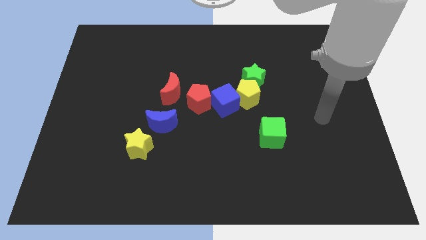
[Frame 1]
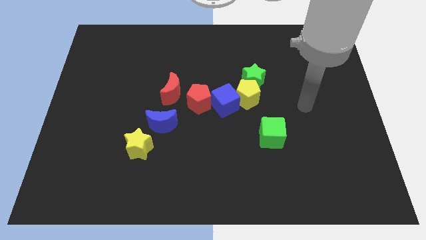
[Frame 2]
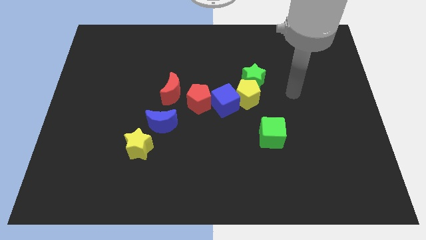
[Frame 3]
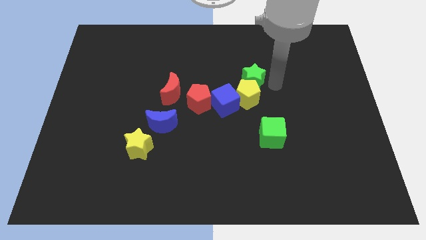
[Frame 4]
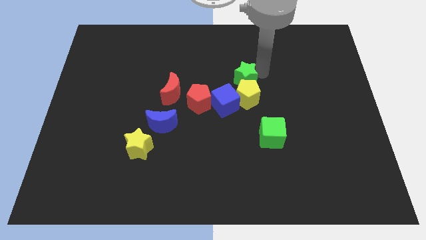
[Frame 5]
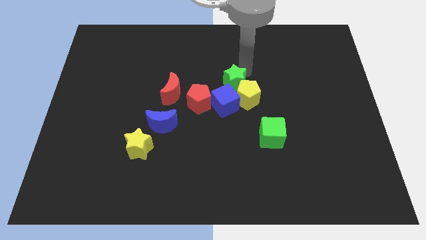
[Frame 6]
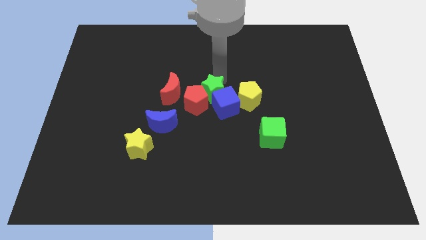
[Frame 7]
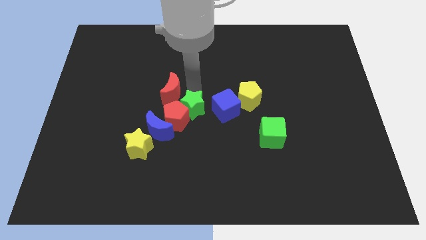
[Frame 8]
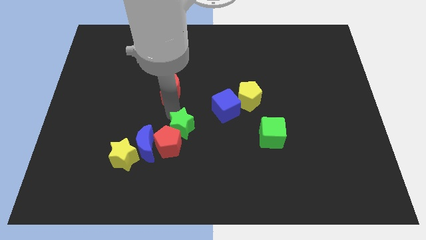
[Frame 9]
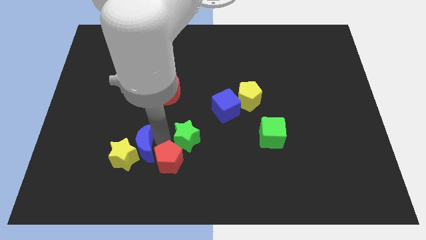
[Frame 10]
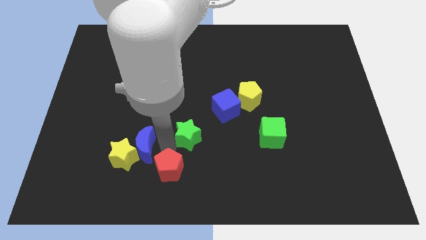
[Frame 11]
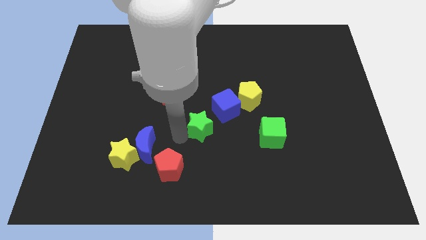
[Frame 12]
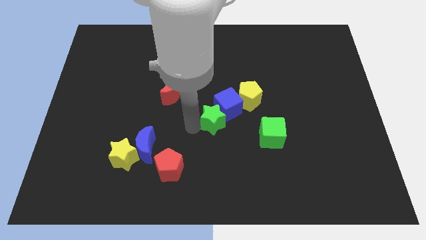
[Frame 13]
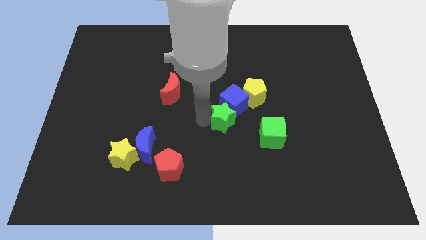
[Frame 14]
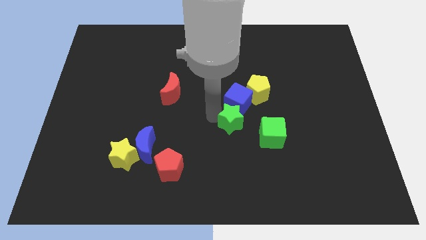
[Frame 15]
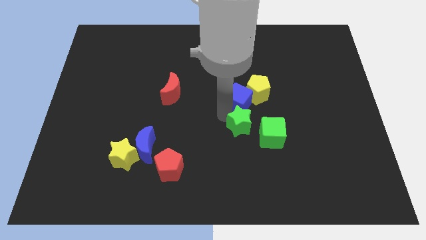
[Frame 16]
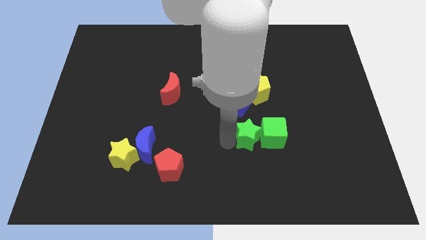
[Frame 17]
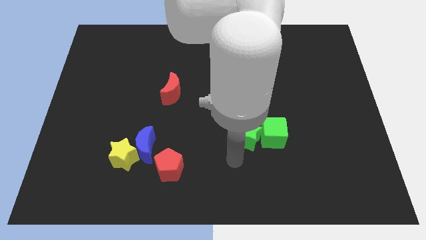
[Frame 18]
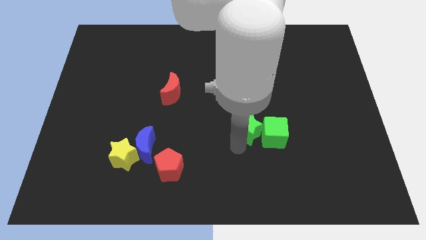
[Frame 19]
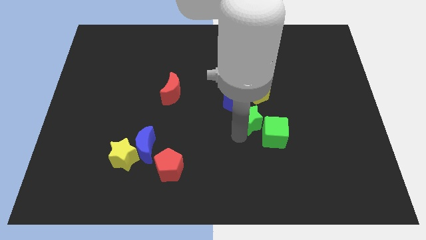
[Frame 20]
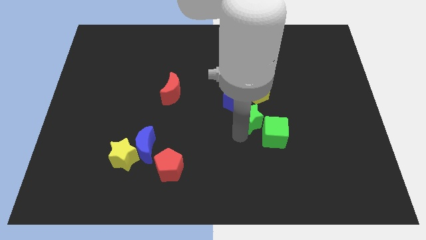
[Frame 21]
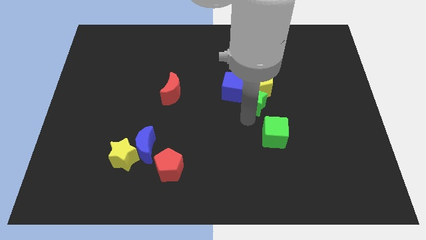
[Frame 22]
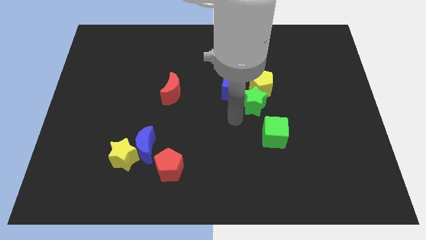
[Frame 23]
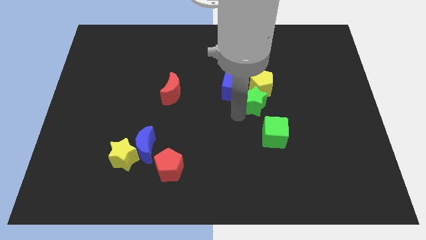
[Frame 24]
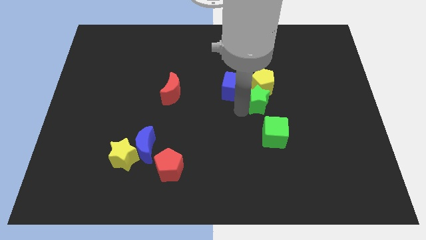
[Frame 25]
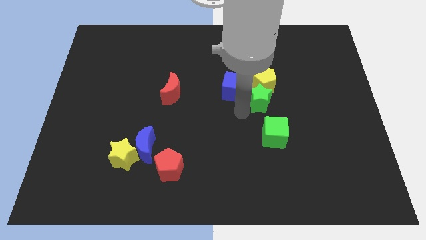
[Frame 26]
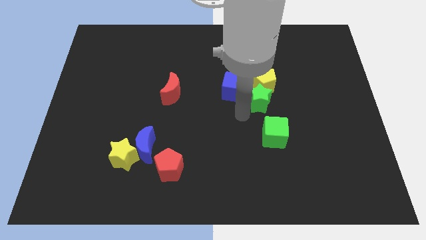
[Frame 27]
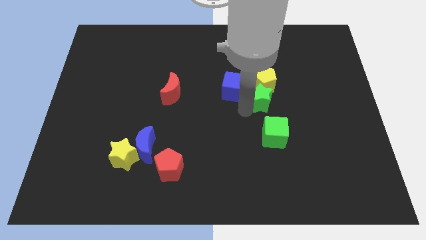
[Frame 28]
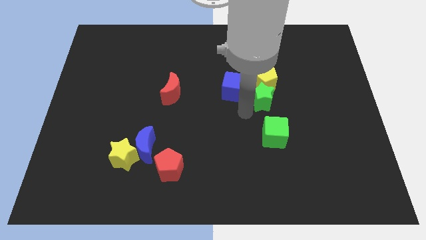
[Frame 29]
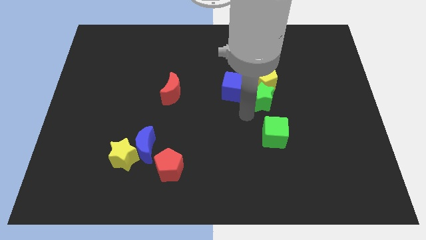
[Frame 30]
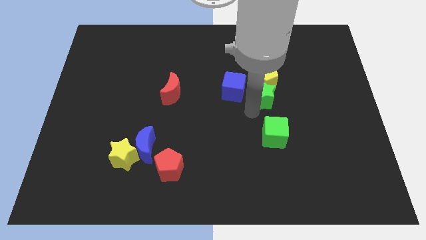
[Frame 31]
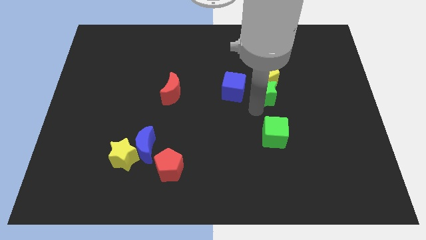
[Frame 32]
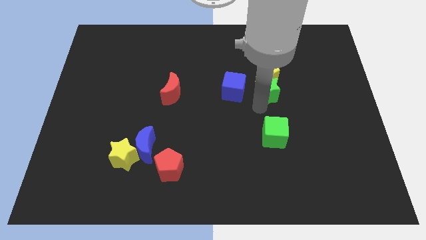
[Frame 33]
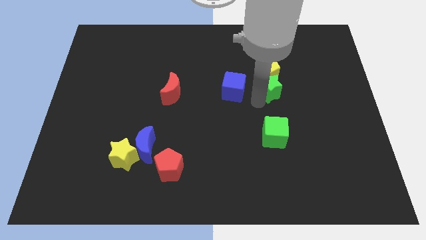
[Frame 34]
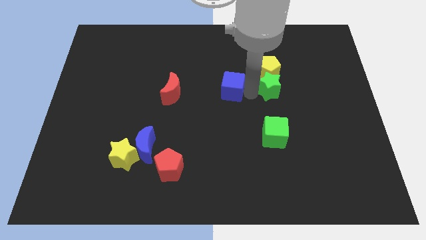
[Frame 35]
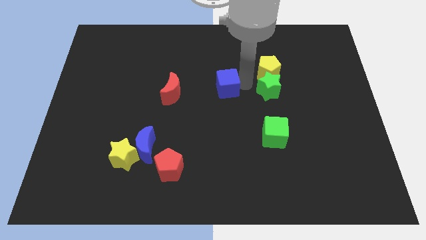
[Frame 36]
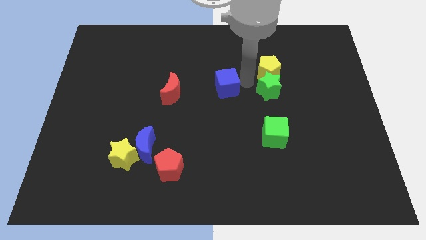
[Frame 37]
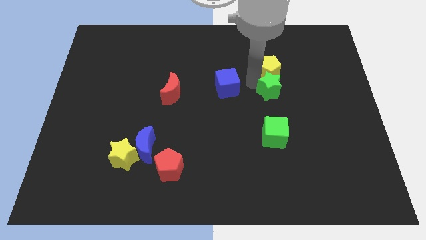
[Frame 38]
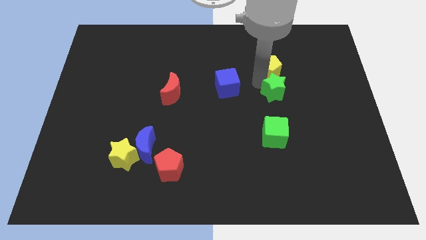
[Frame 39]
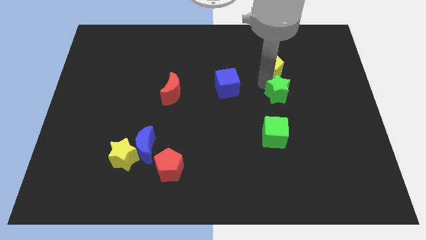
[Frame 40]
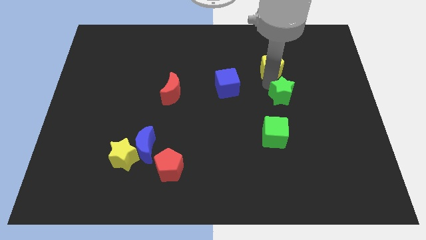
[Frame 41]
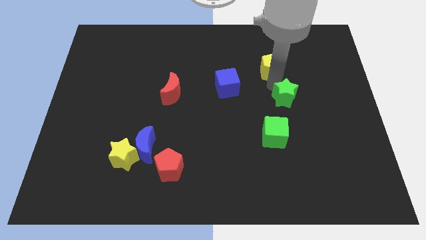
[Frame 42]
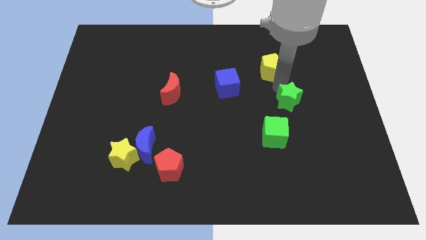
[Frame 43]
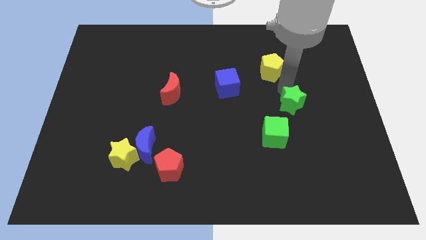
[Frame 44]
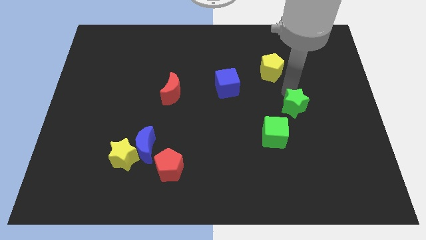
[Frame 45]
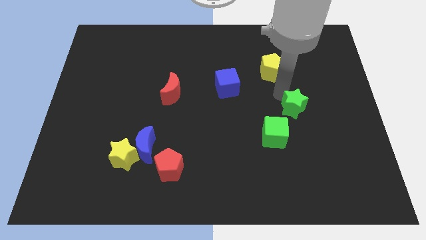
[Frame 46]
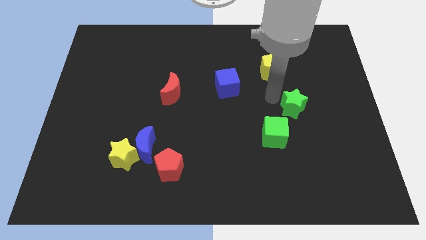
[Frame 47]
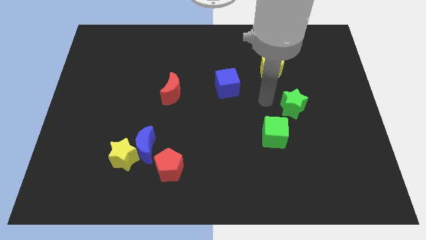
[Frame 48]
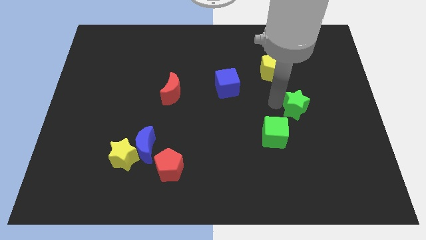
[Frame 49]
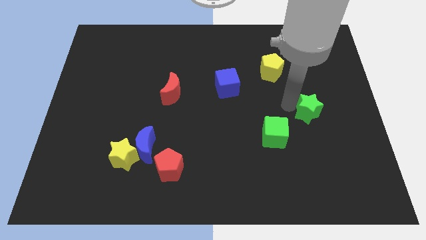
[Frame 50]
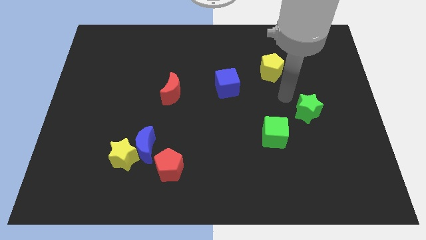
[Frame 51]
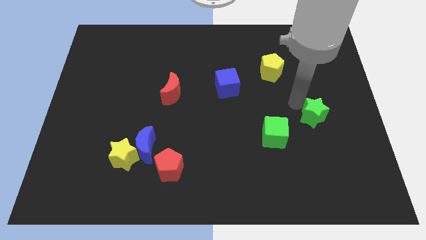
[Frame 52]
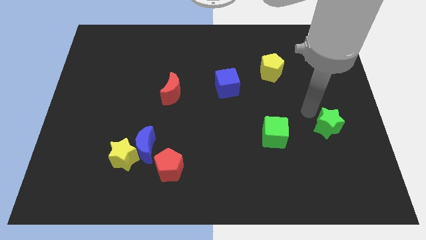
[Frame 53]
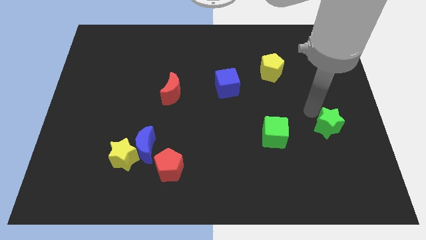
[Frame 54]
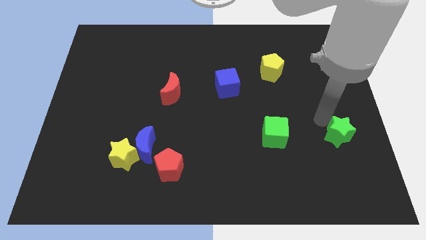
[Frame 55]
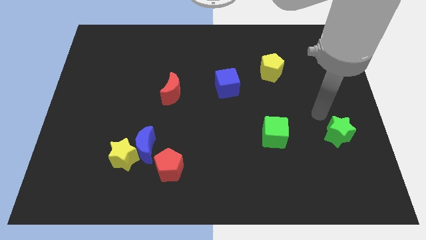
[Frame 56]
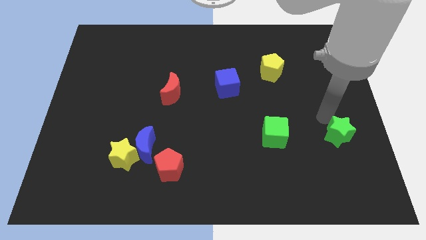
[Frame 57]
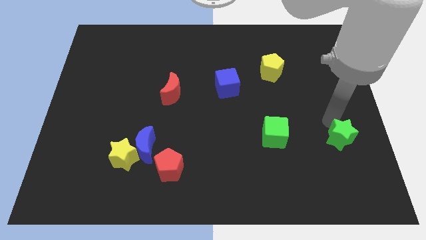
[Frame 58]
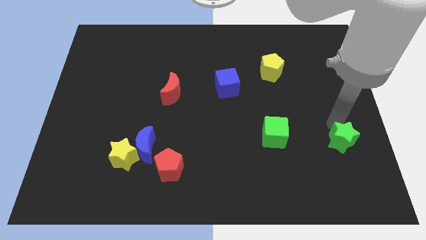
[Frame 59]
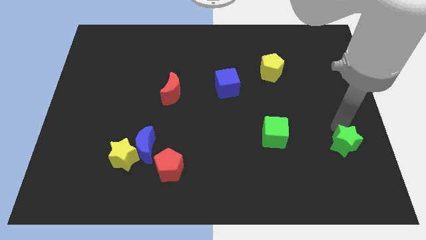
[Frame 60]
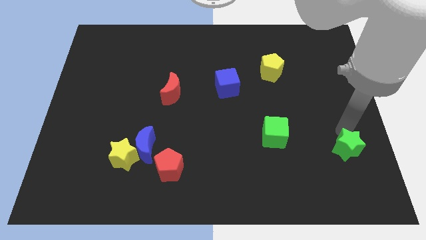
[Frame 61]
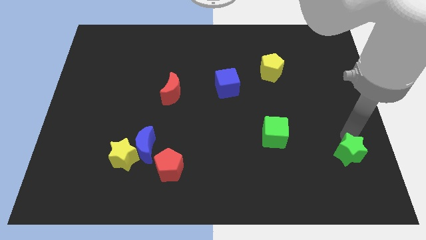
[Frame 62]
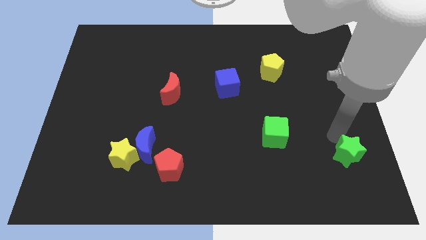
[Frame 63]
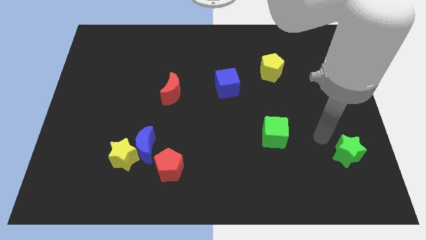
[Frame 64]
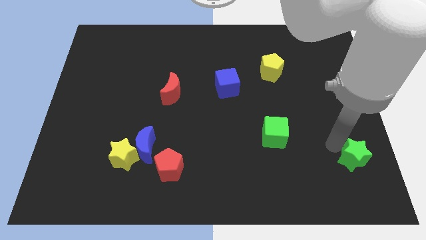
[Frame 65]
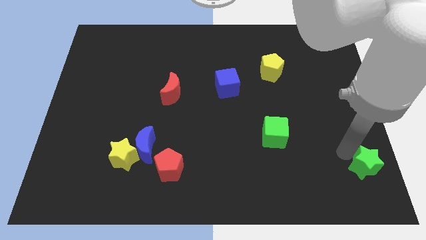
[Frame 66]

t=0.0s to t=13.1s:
push the green star to the bottom right of the board
